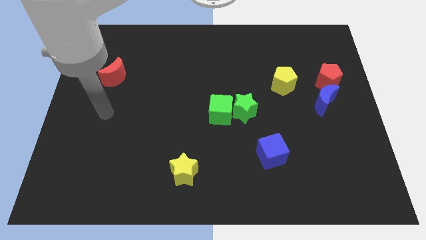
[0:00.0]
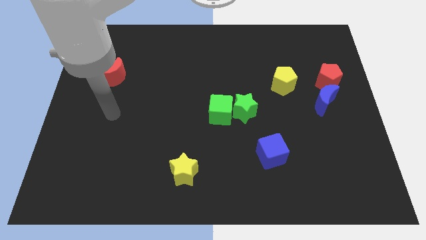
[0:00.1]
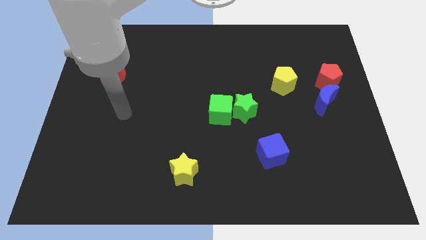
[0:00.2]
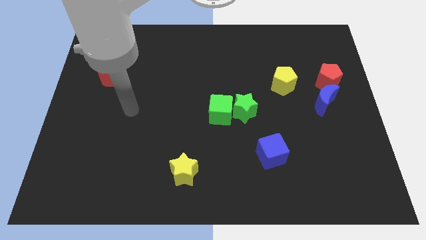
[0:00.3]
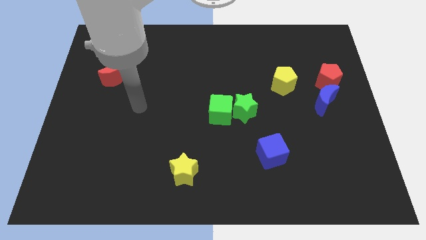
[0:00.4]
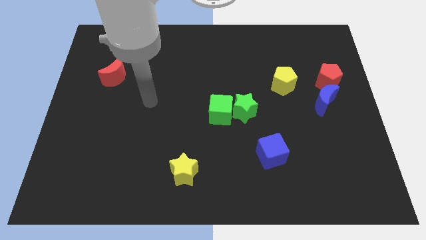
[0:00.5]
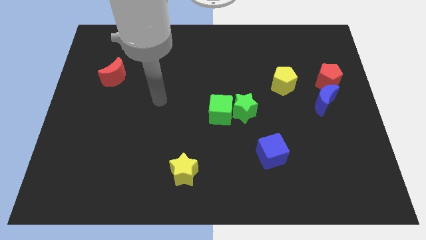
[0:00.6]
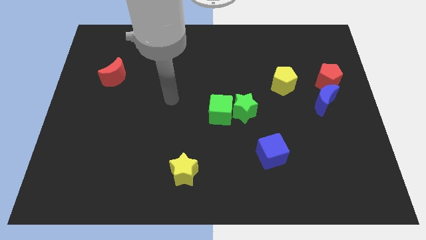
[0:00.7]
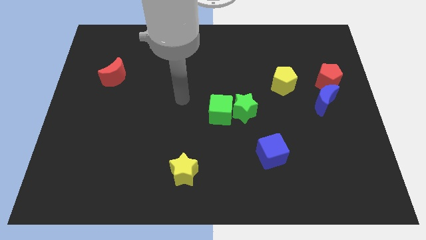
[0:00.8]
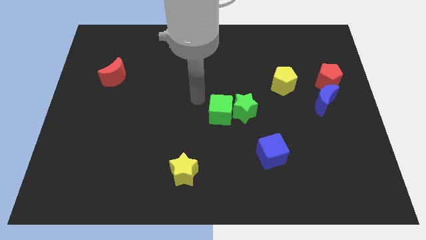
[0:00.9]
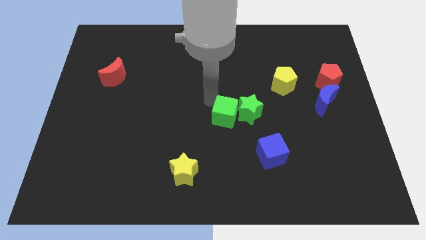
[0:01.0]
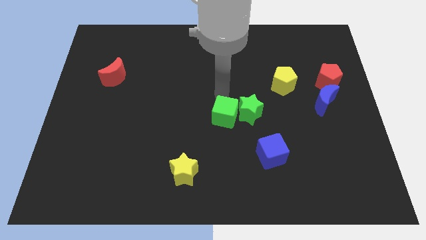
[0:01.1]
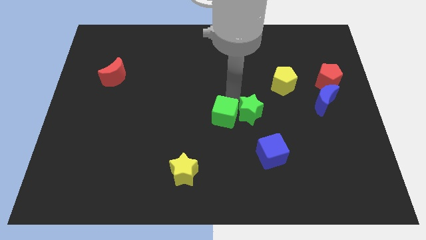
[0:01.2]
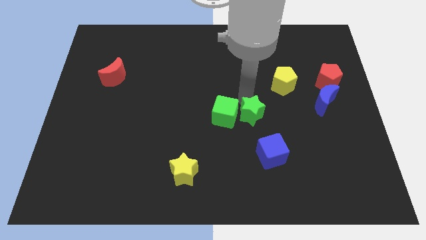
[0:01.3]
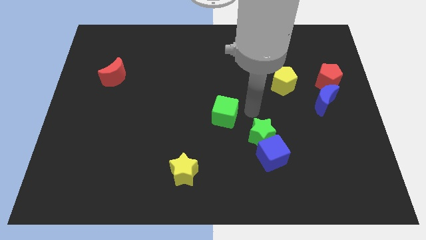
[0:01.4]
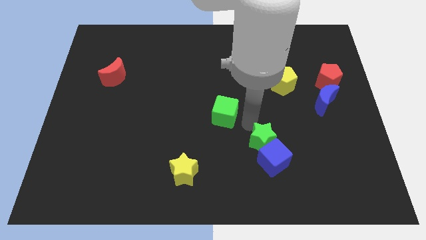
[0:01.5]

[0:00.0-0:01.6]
pull the green cube apart from the green star

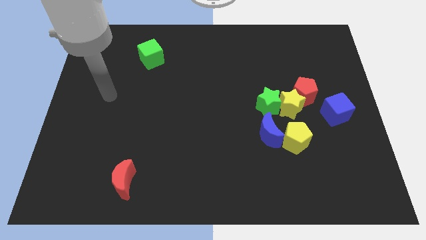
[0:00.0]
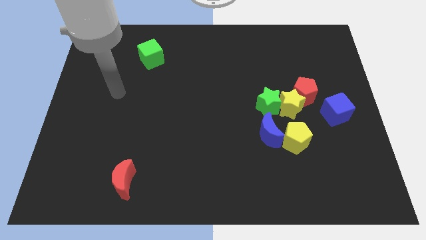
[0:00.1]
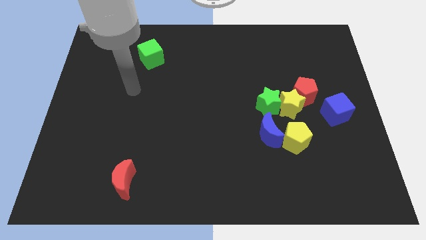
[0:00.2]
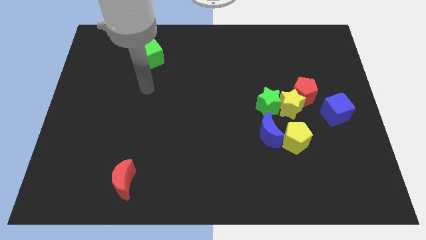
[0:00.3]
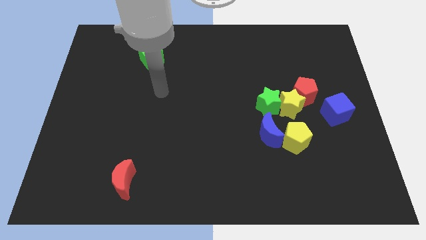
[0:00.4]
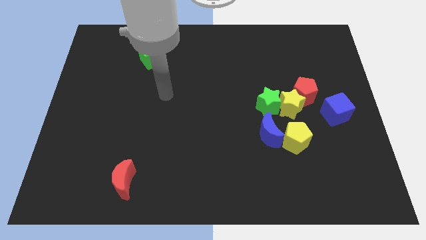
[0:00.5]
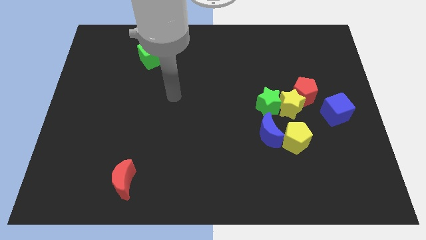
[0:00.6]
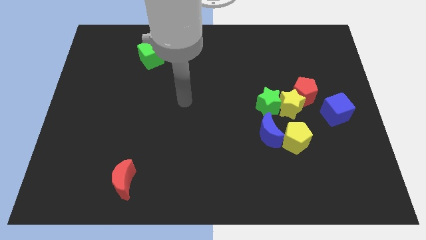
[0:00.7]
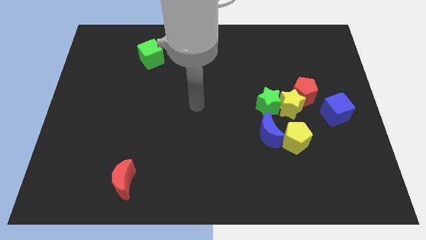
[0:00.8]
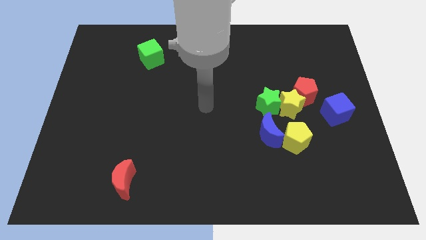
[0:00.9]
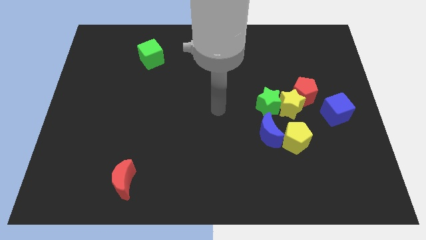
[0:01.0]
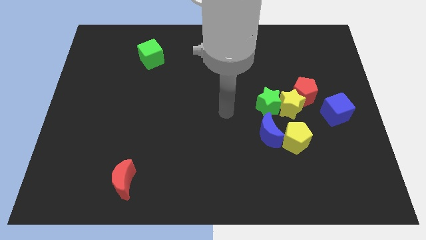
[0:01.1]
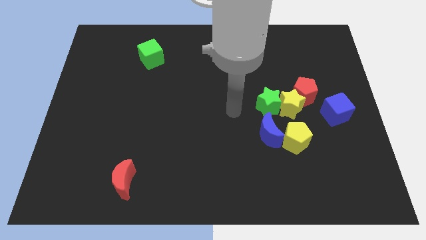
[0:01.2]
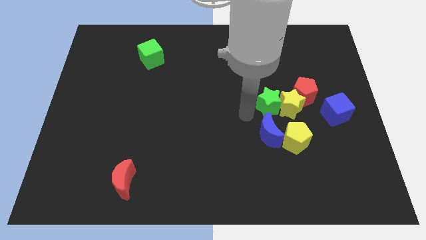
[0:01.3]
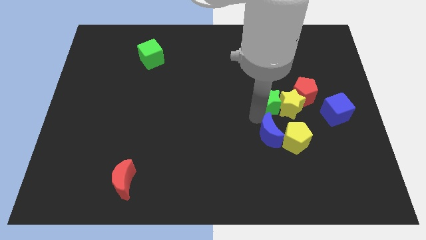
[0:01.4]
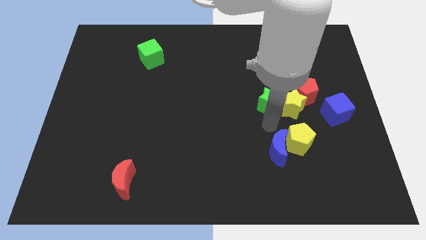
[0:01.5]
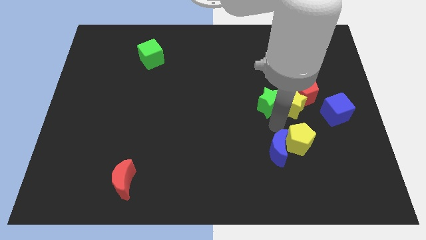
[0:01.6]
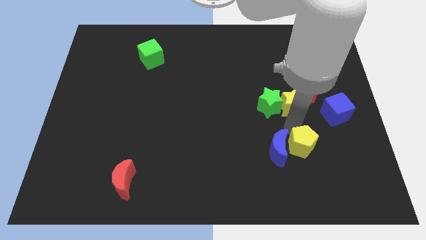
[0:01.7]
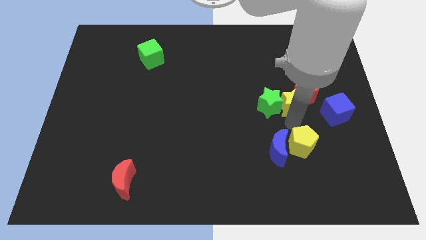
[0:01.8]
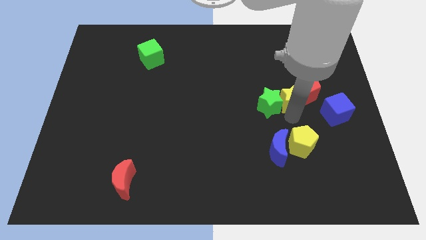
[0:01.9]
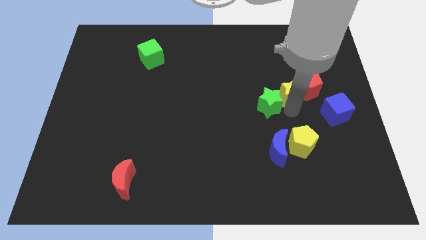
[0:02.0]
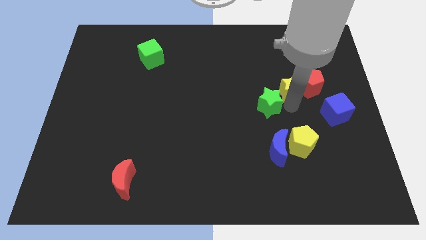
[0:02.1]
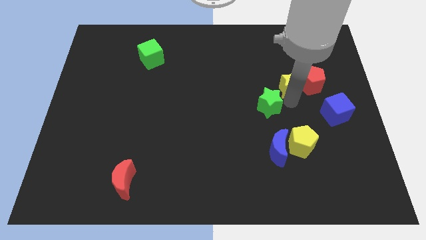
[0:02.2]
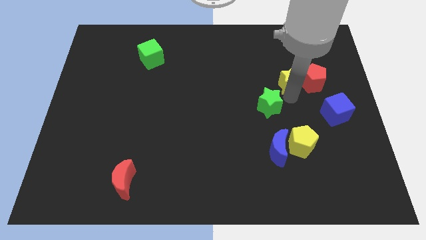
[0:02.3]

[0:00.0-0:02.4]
separate the yellow star from the clump

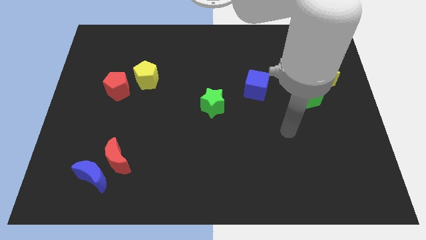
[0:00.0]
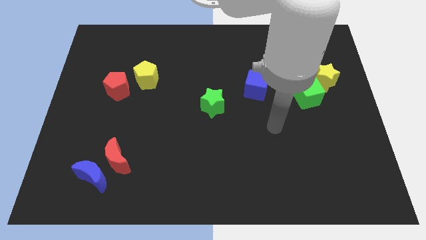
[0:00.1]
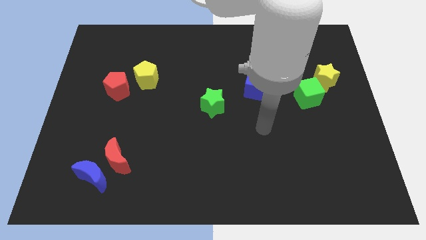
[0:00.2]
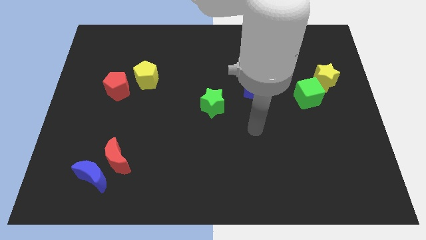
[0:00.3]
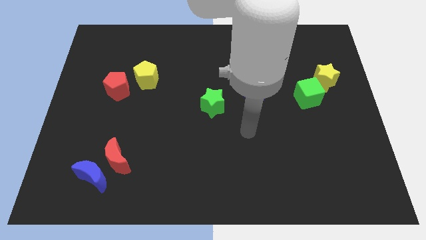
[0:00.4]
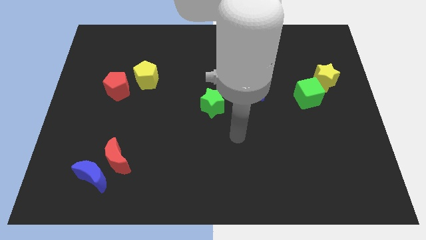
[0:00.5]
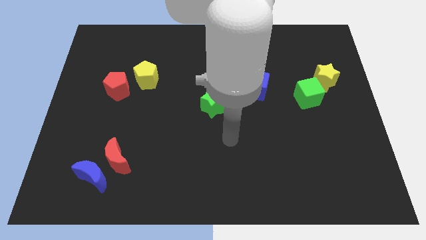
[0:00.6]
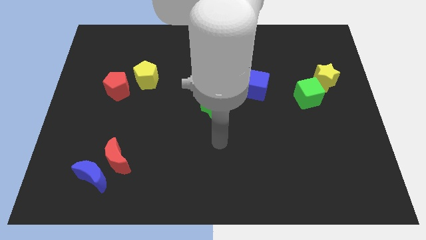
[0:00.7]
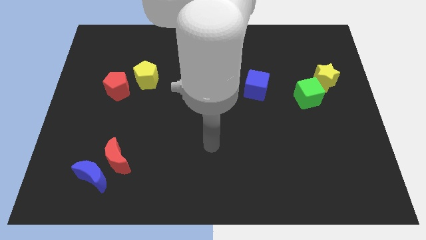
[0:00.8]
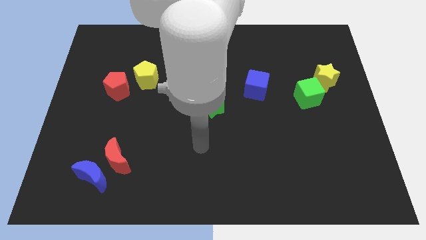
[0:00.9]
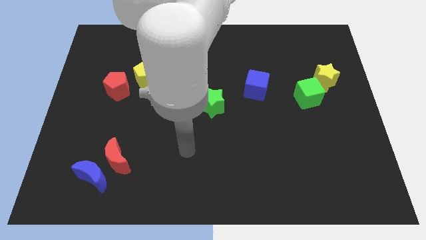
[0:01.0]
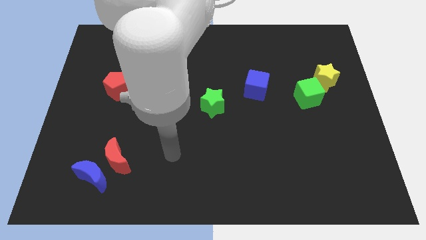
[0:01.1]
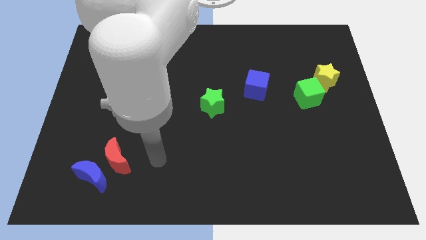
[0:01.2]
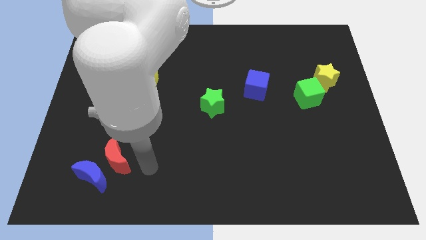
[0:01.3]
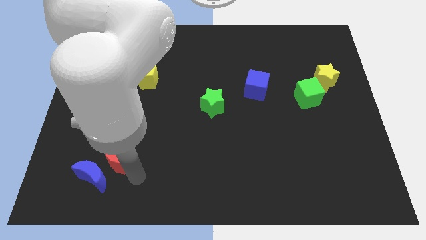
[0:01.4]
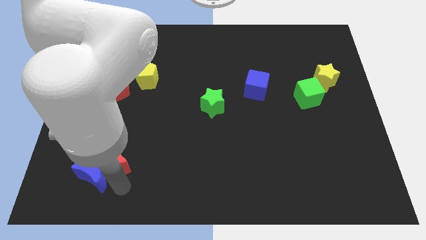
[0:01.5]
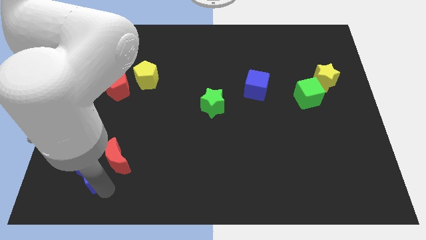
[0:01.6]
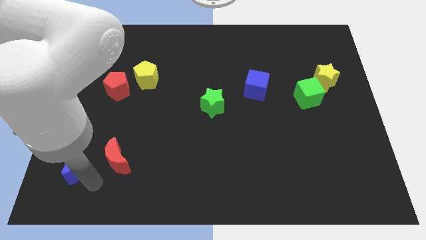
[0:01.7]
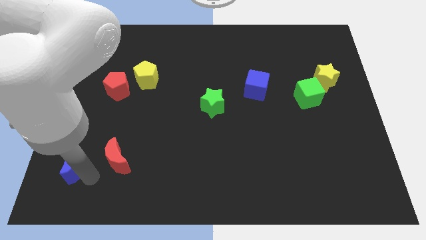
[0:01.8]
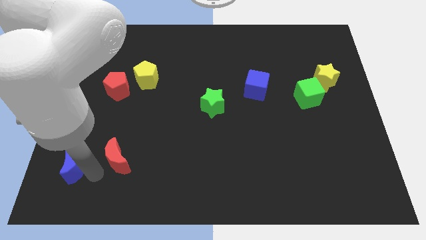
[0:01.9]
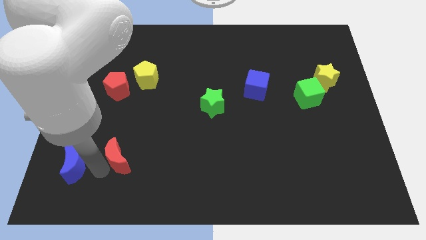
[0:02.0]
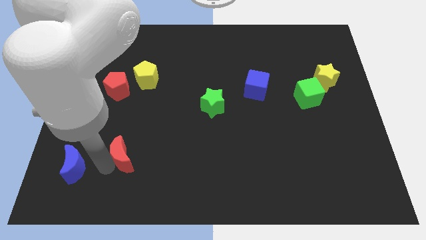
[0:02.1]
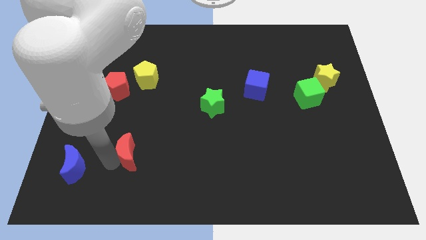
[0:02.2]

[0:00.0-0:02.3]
move the red moon away from the blue moon

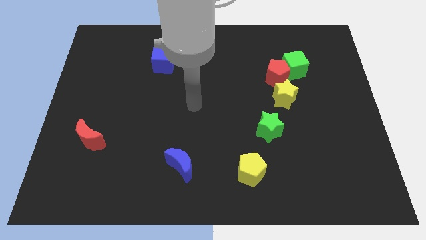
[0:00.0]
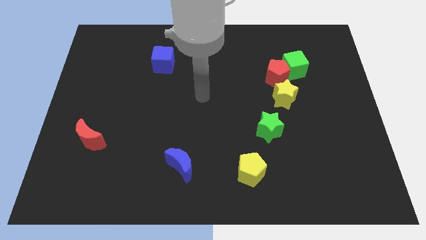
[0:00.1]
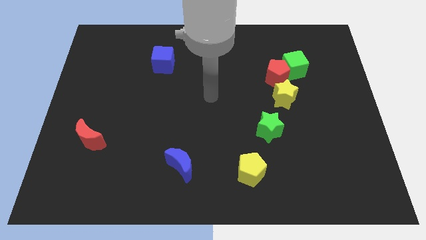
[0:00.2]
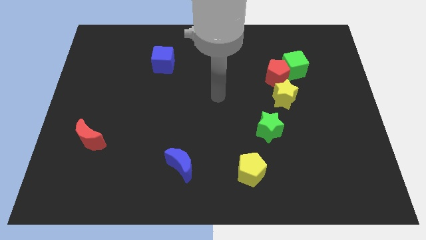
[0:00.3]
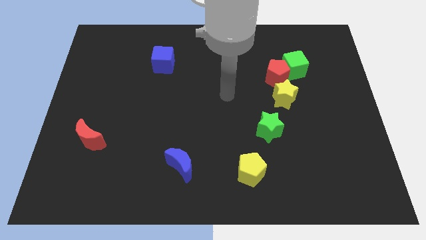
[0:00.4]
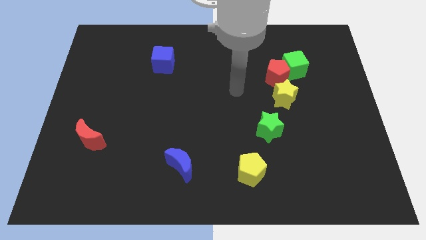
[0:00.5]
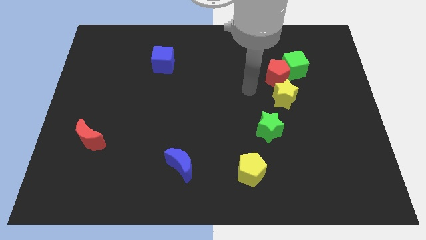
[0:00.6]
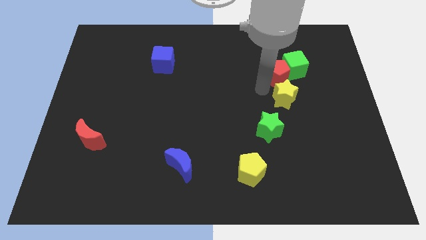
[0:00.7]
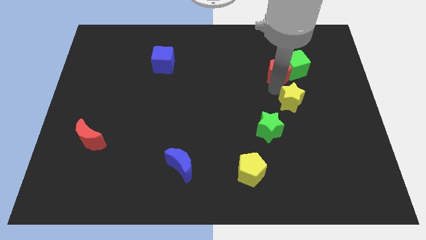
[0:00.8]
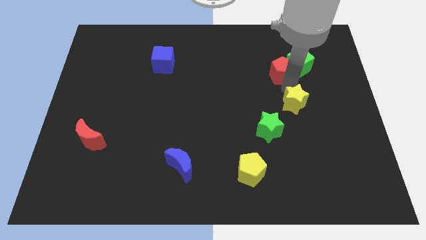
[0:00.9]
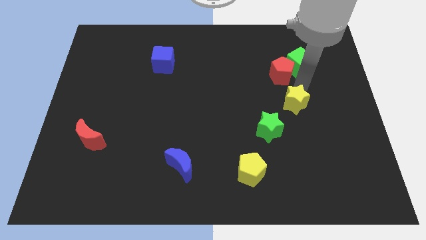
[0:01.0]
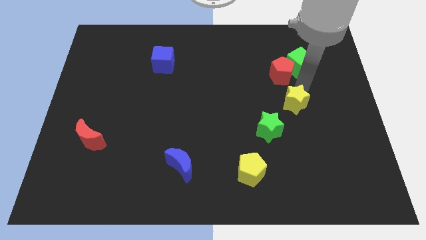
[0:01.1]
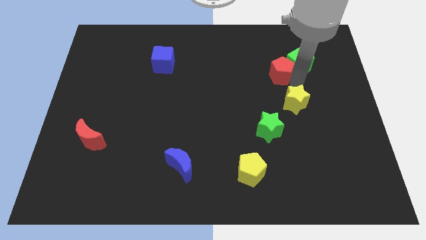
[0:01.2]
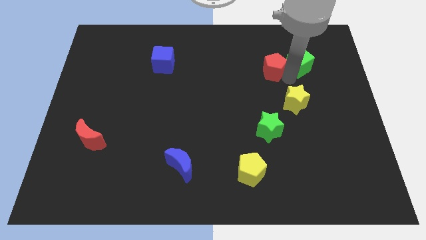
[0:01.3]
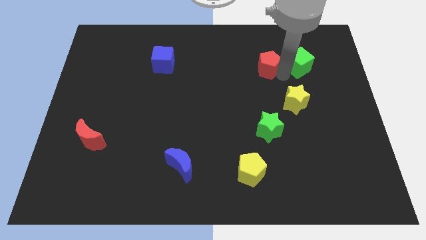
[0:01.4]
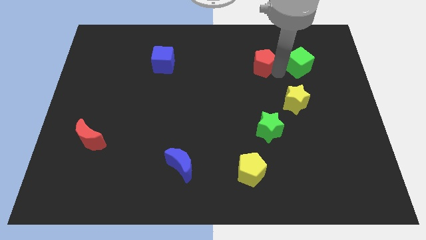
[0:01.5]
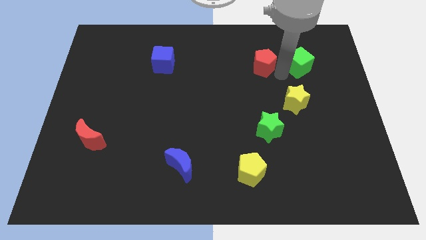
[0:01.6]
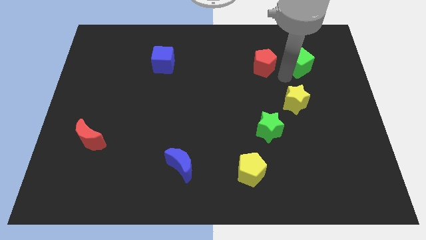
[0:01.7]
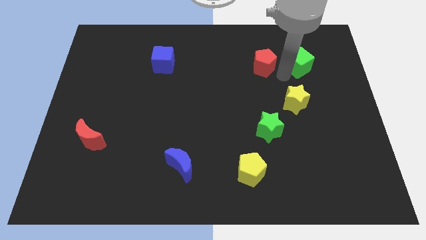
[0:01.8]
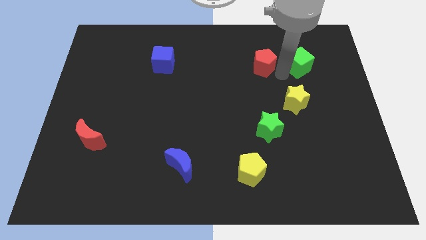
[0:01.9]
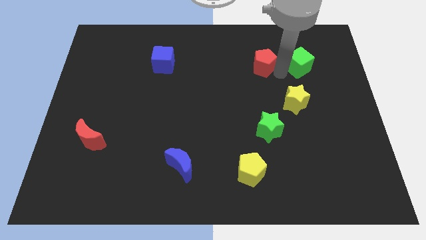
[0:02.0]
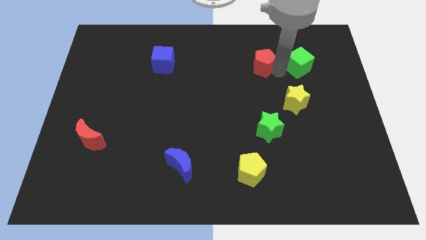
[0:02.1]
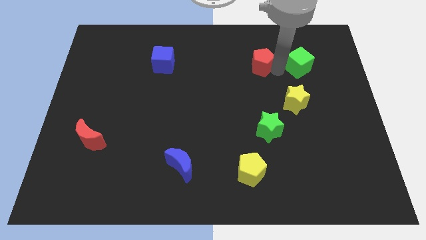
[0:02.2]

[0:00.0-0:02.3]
separate the red pentagon from the green cube and yellow star

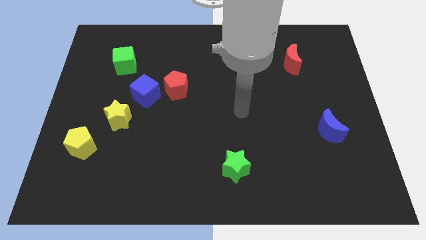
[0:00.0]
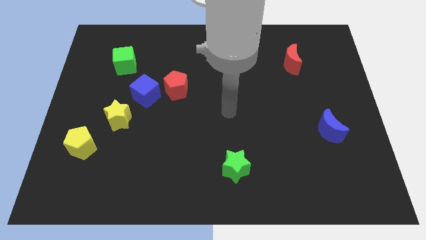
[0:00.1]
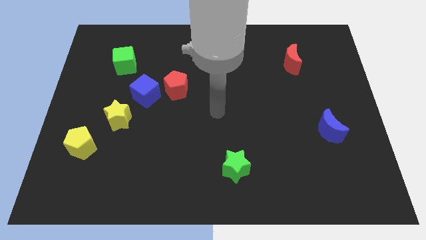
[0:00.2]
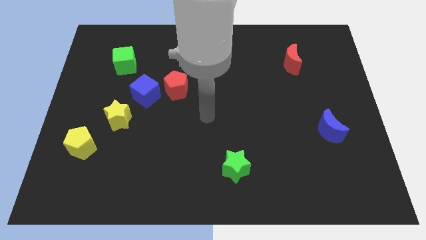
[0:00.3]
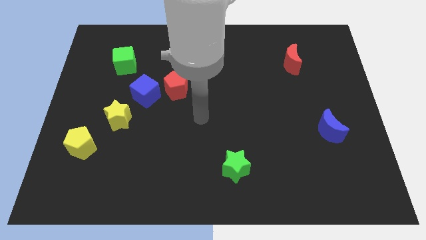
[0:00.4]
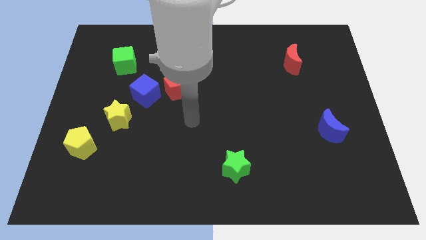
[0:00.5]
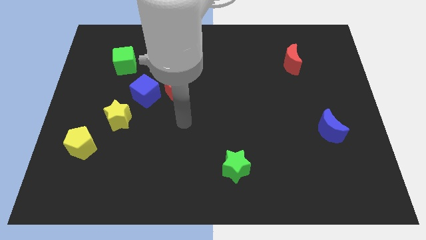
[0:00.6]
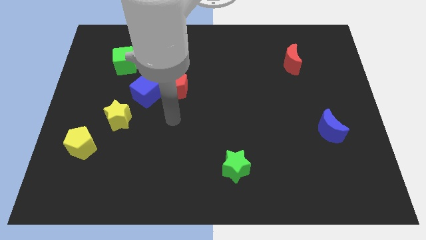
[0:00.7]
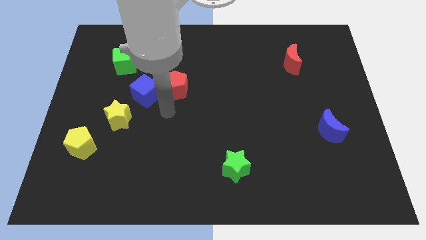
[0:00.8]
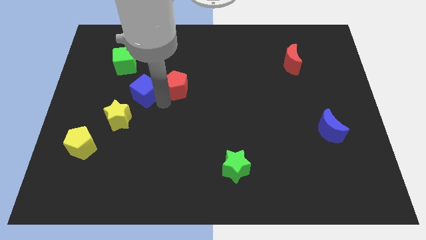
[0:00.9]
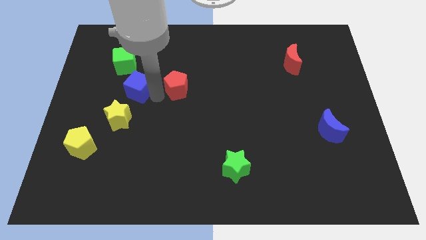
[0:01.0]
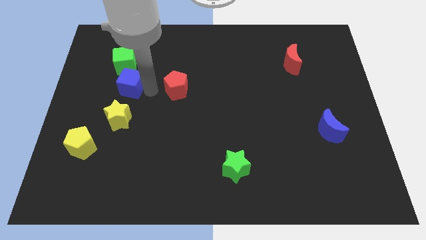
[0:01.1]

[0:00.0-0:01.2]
move the red pentagon away from the blue cube
